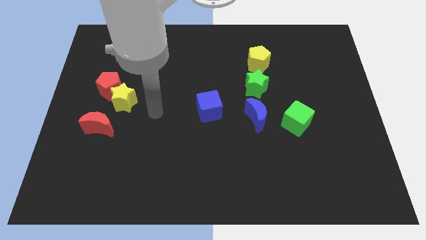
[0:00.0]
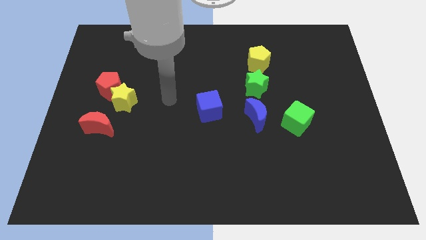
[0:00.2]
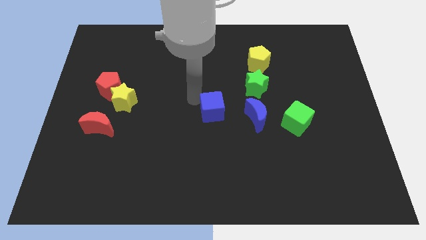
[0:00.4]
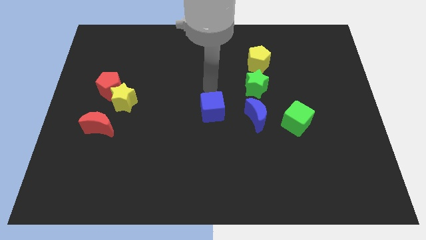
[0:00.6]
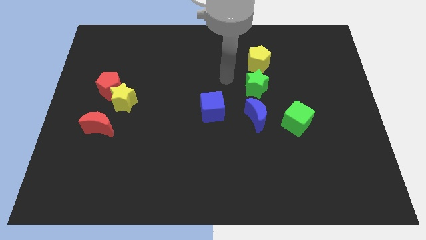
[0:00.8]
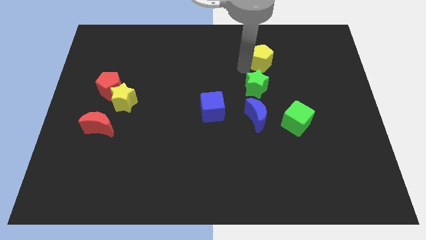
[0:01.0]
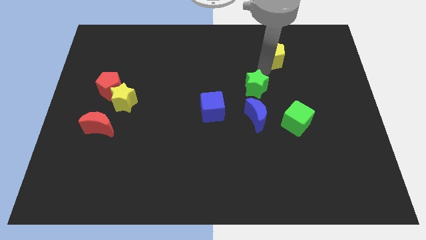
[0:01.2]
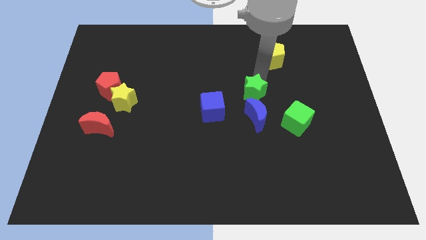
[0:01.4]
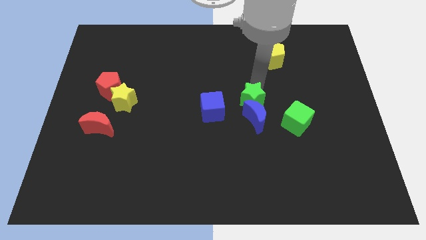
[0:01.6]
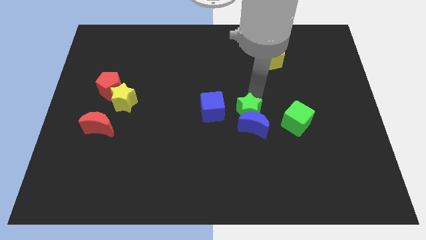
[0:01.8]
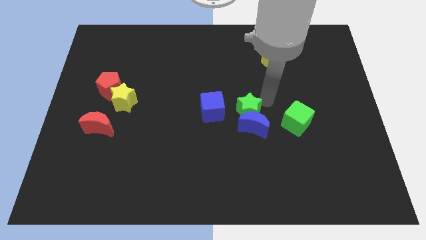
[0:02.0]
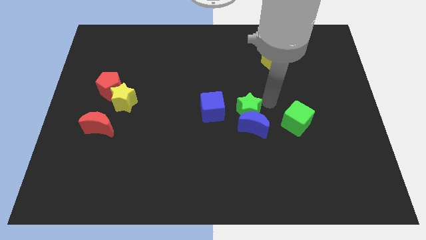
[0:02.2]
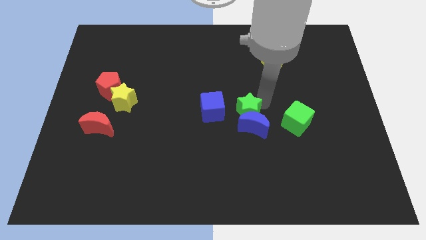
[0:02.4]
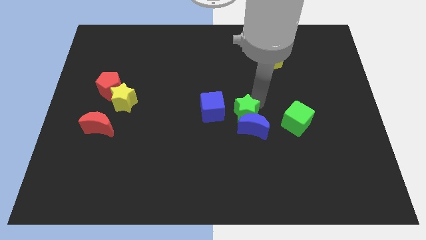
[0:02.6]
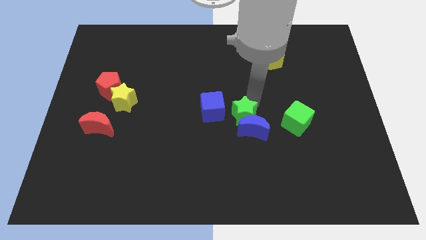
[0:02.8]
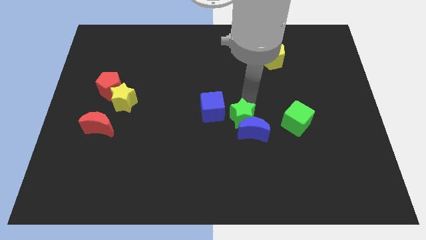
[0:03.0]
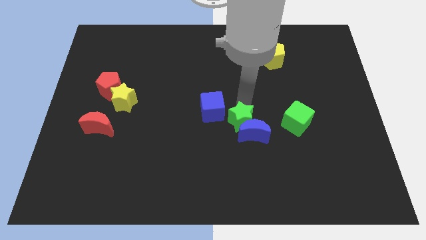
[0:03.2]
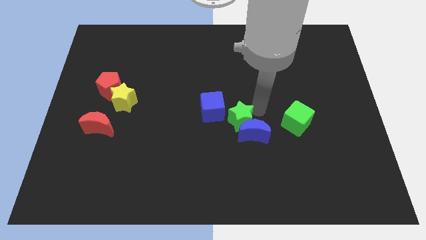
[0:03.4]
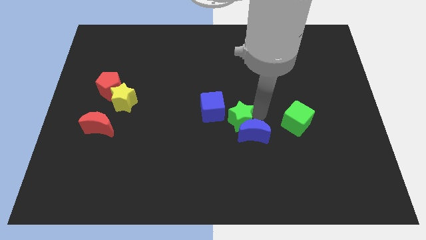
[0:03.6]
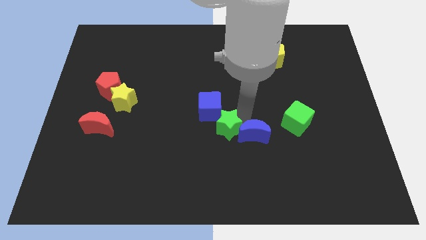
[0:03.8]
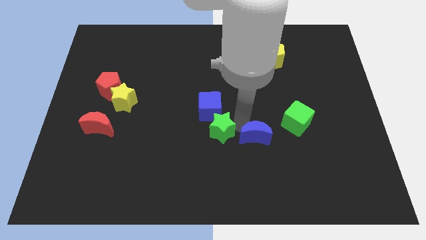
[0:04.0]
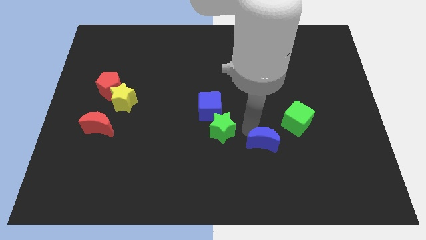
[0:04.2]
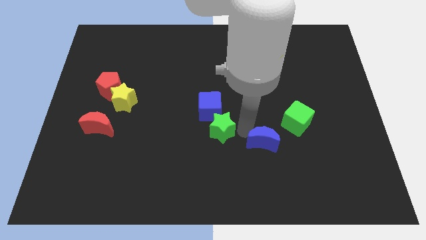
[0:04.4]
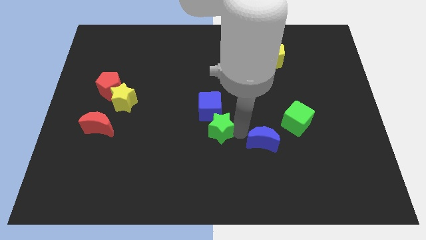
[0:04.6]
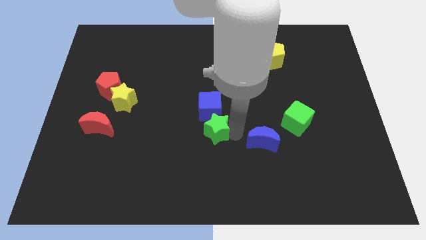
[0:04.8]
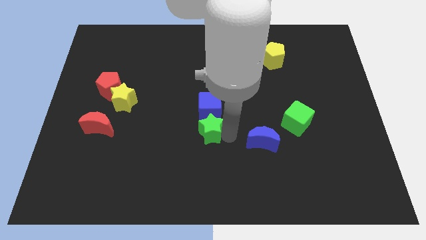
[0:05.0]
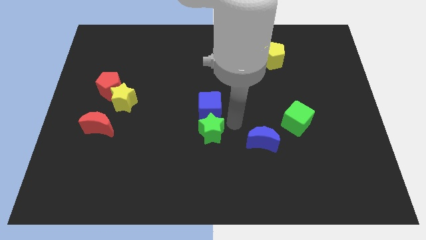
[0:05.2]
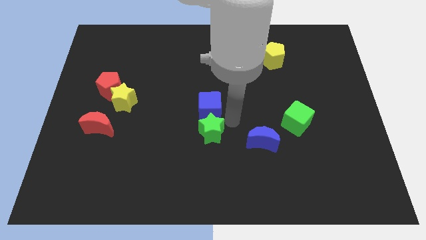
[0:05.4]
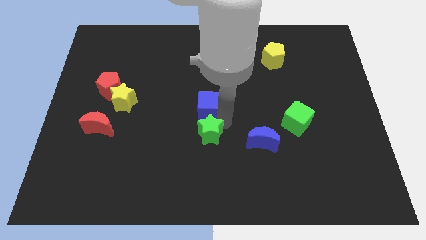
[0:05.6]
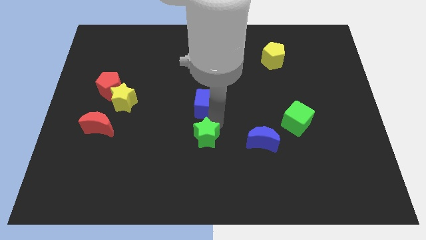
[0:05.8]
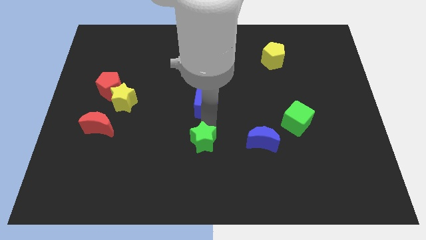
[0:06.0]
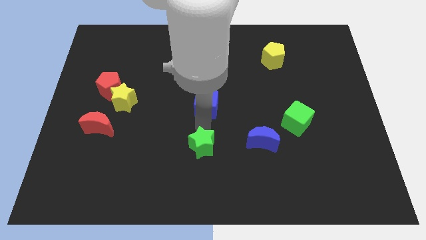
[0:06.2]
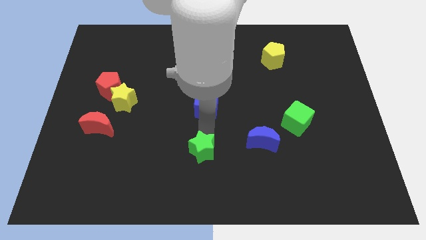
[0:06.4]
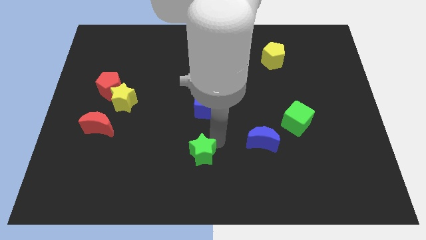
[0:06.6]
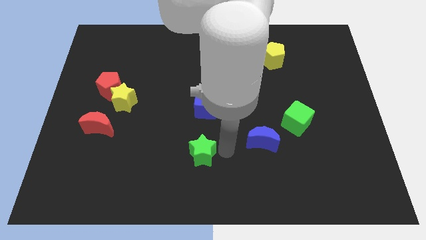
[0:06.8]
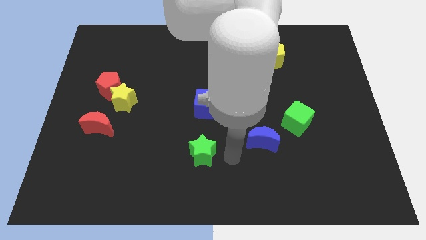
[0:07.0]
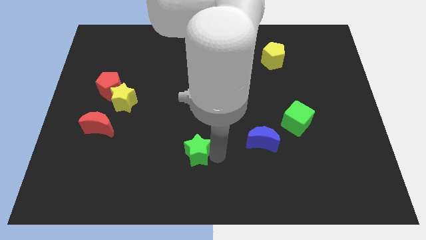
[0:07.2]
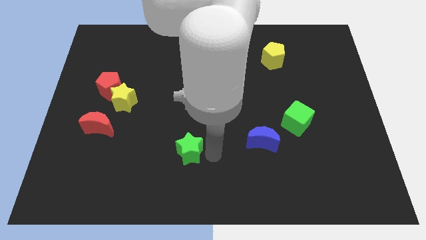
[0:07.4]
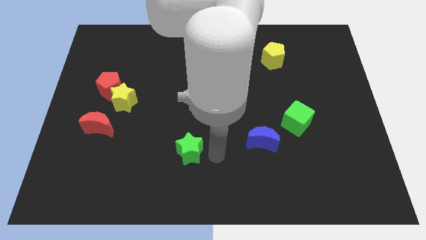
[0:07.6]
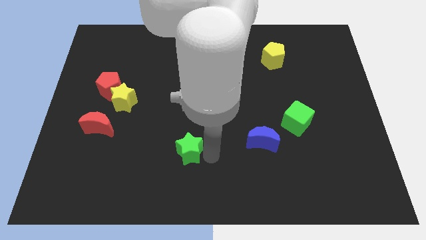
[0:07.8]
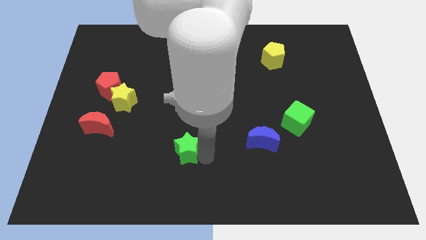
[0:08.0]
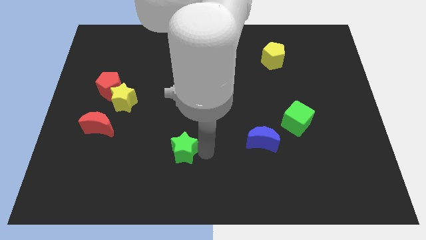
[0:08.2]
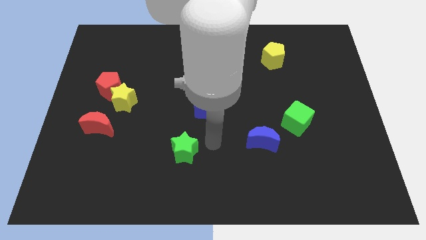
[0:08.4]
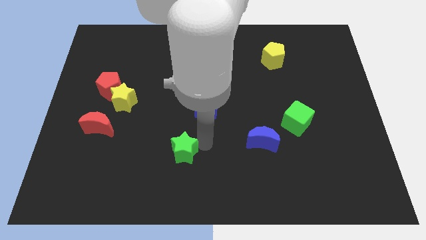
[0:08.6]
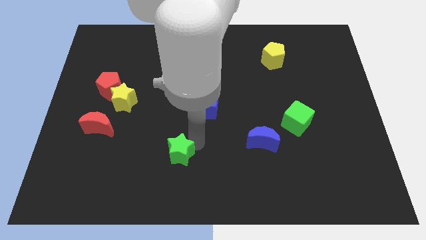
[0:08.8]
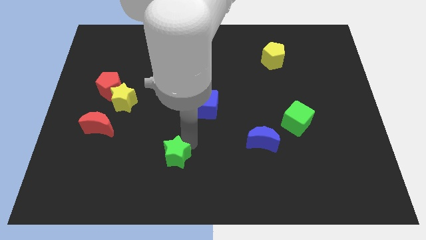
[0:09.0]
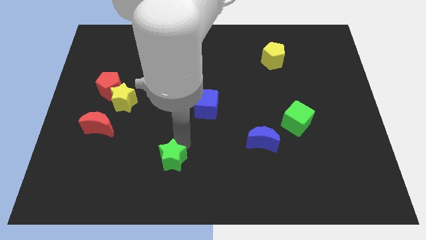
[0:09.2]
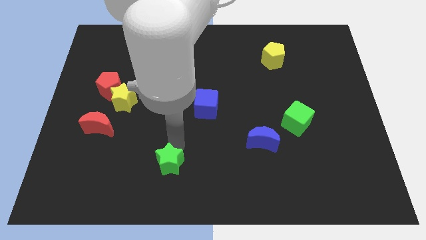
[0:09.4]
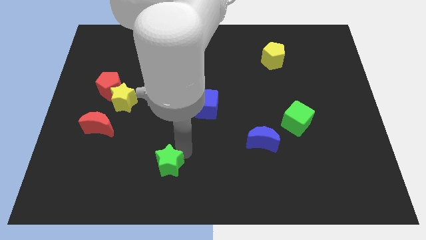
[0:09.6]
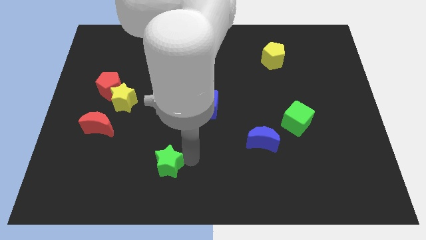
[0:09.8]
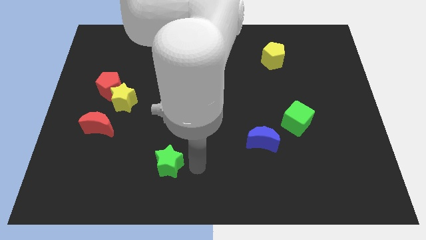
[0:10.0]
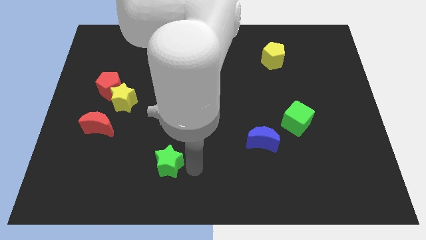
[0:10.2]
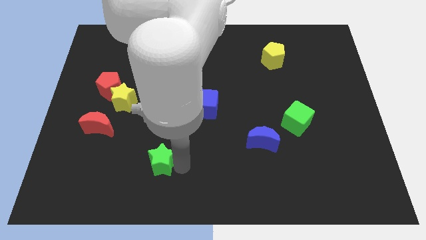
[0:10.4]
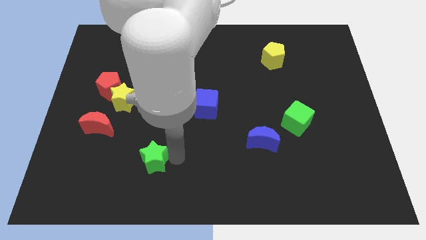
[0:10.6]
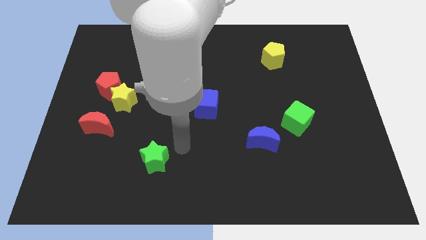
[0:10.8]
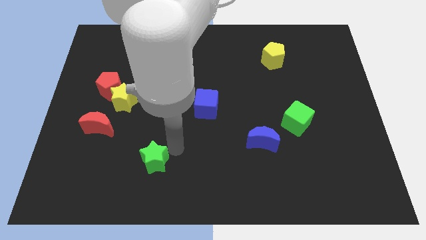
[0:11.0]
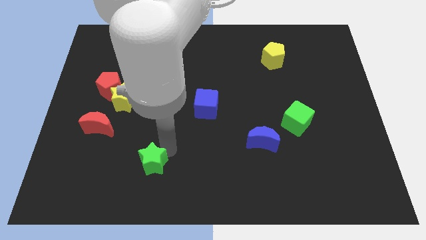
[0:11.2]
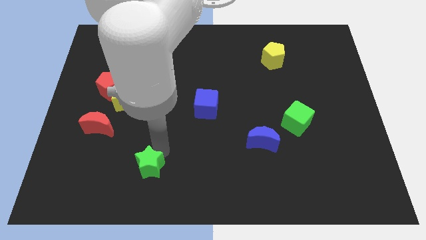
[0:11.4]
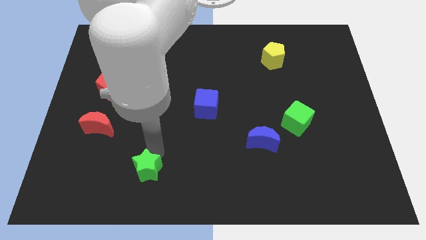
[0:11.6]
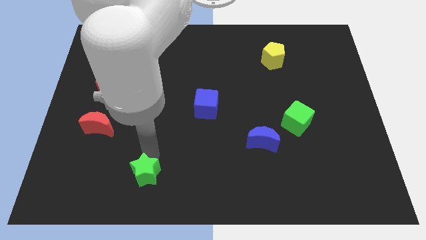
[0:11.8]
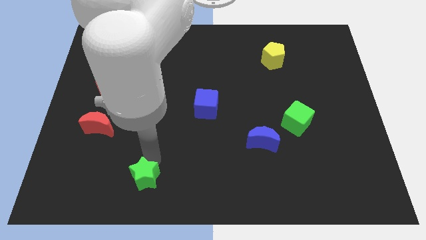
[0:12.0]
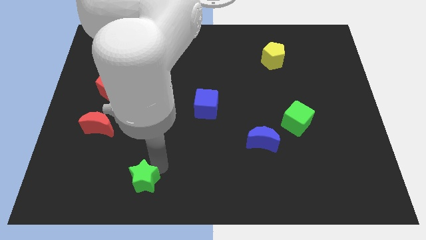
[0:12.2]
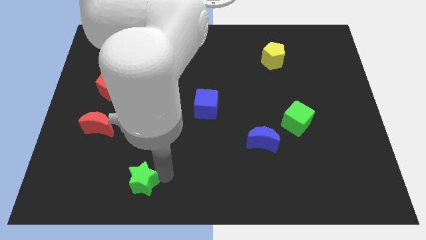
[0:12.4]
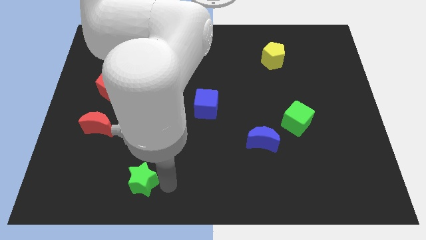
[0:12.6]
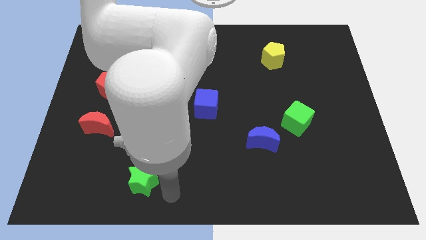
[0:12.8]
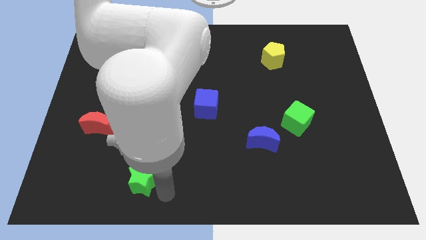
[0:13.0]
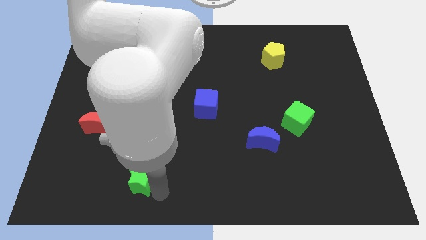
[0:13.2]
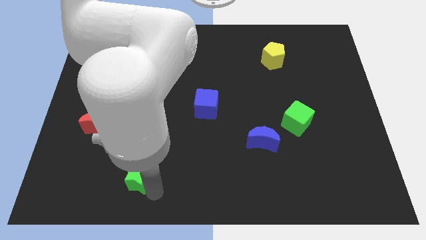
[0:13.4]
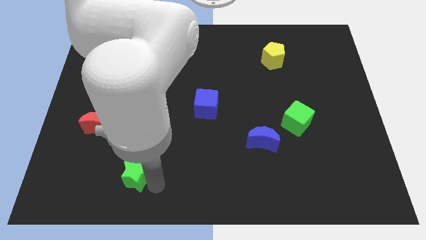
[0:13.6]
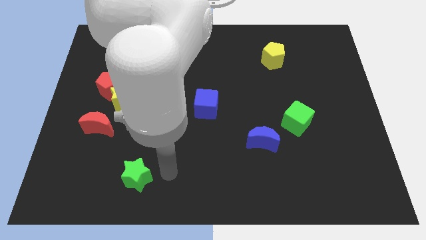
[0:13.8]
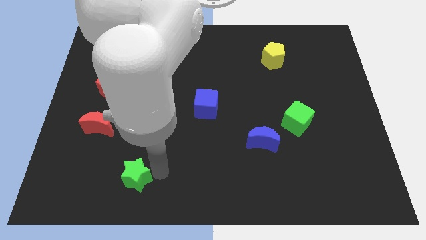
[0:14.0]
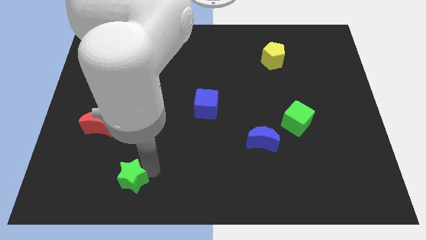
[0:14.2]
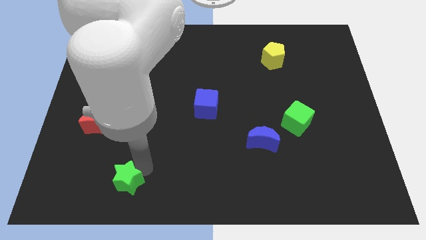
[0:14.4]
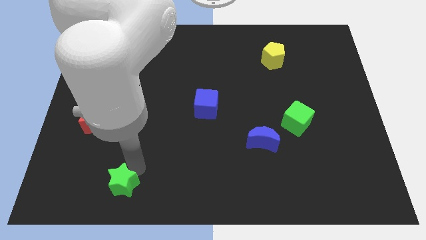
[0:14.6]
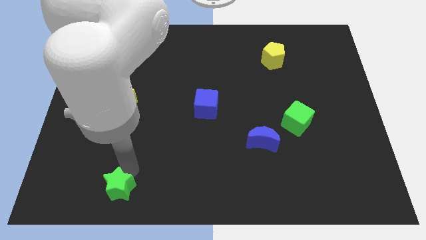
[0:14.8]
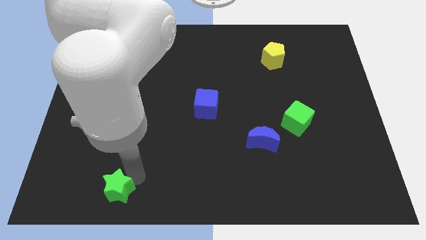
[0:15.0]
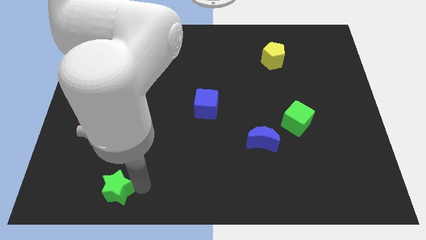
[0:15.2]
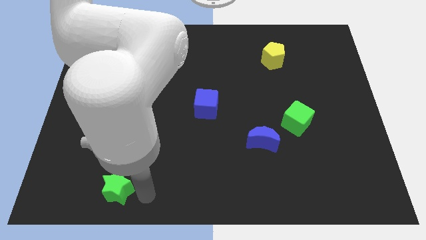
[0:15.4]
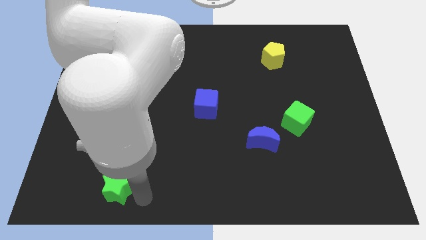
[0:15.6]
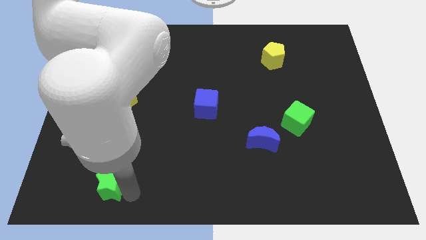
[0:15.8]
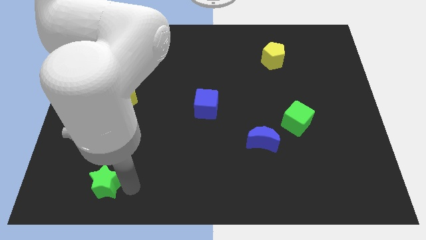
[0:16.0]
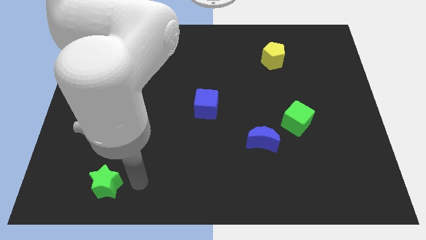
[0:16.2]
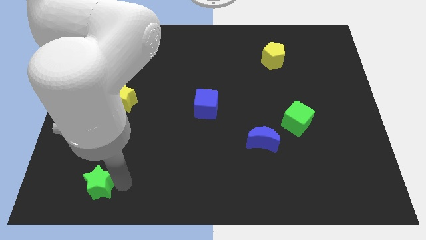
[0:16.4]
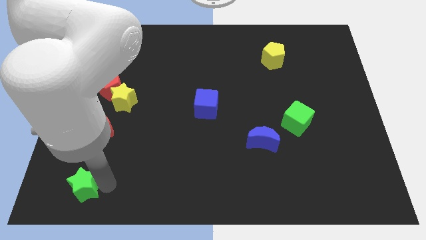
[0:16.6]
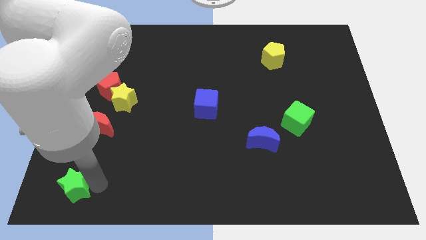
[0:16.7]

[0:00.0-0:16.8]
put the green star to the bottom left
